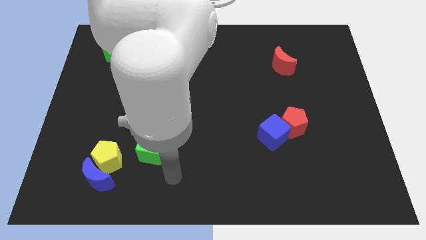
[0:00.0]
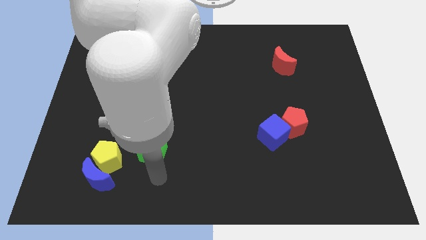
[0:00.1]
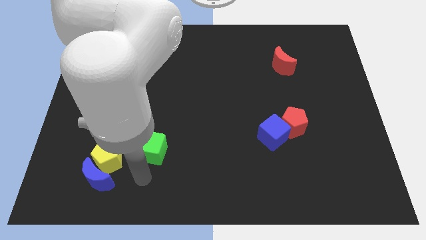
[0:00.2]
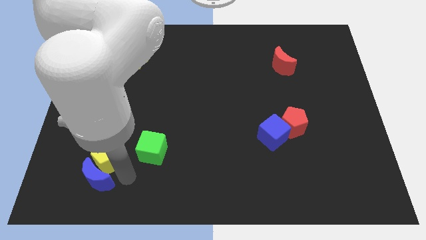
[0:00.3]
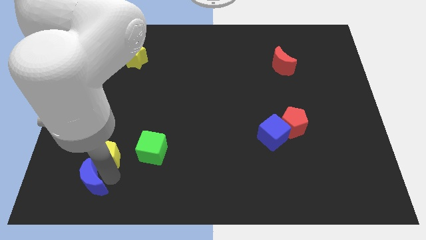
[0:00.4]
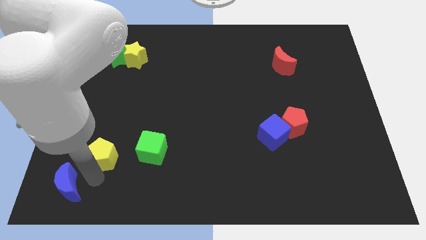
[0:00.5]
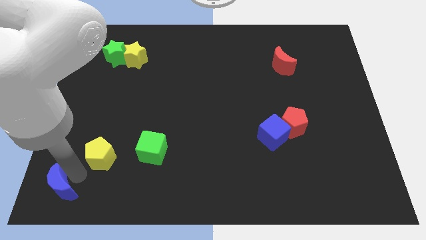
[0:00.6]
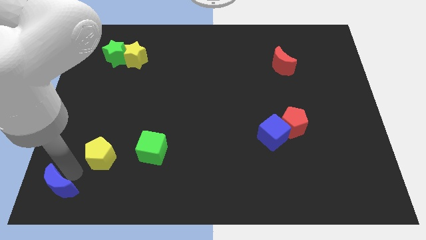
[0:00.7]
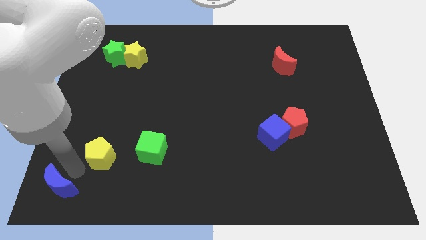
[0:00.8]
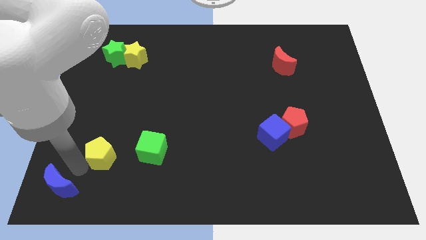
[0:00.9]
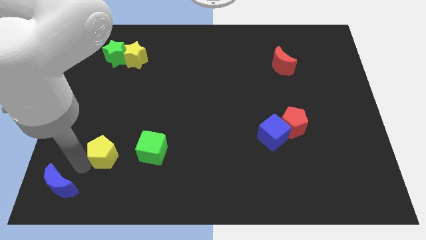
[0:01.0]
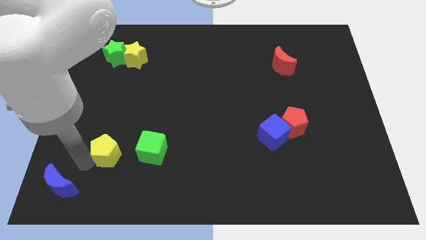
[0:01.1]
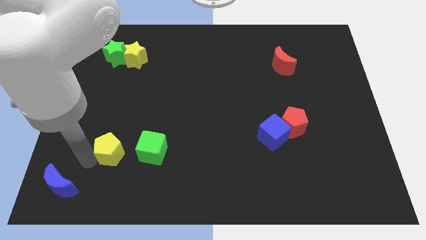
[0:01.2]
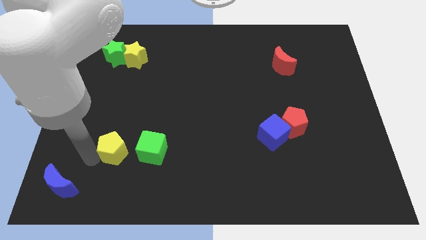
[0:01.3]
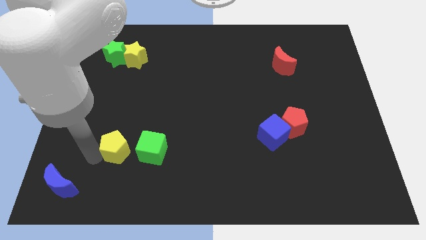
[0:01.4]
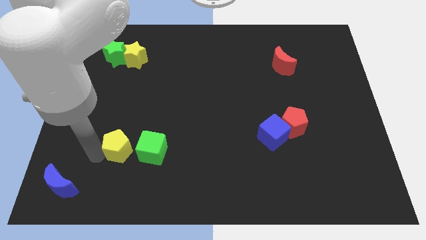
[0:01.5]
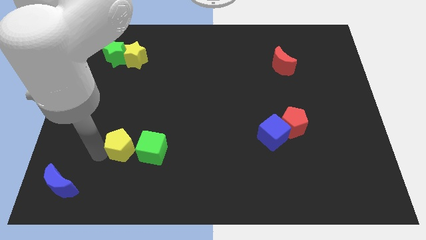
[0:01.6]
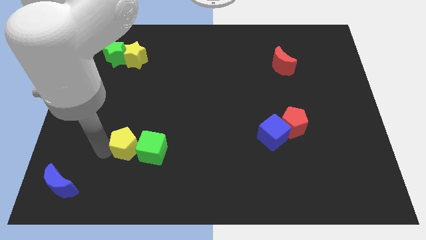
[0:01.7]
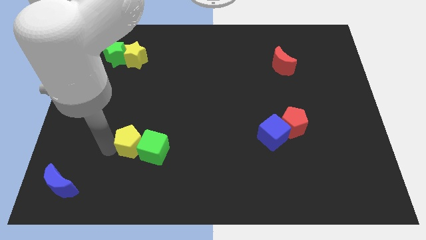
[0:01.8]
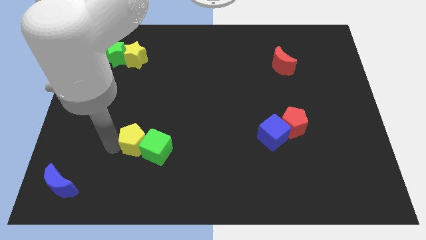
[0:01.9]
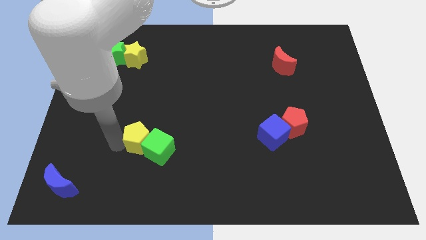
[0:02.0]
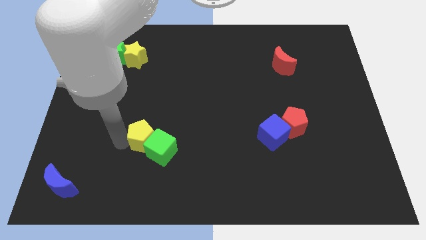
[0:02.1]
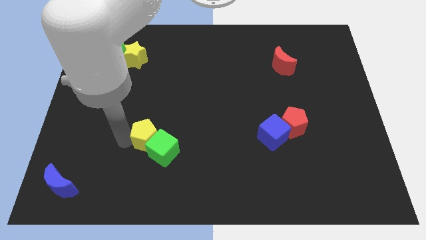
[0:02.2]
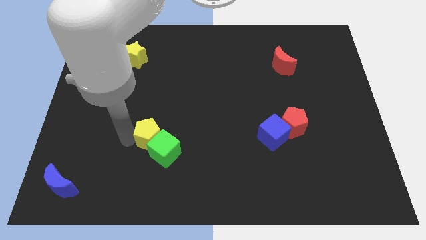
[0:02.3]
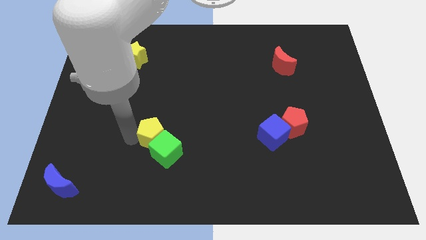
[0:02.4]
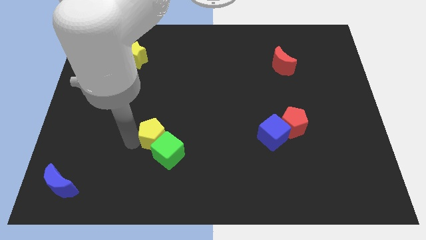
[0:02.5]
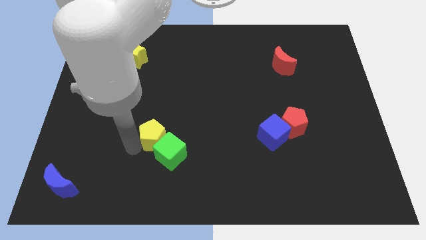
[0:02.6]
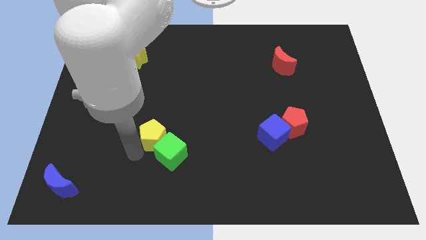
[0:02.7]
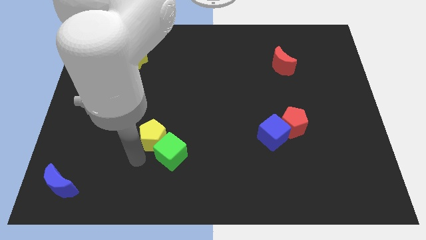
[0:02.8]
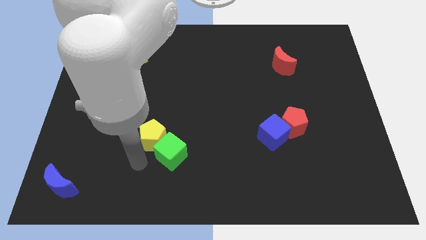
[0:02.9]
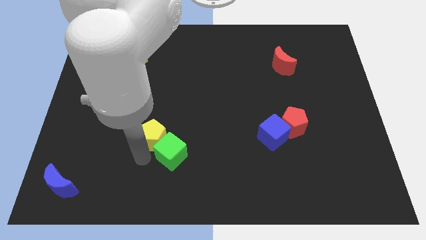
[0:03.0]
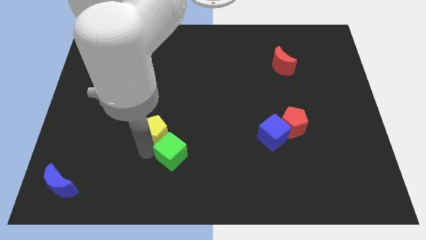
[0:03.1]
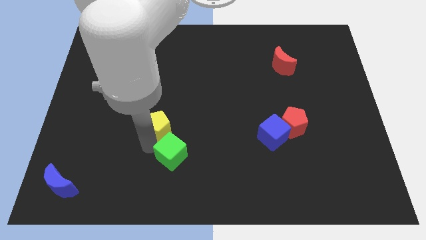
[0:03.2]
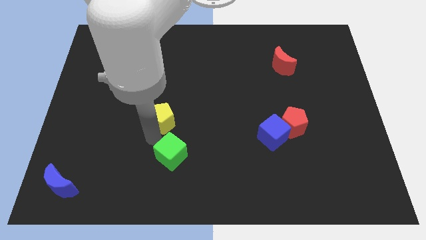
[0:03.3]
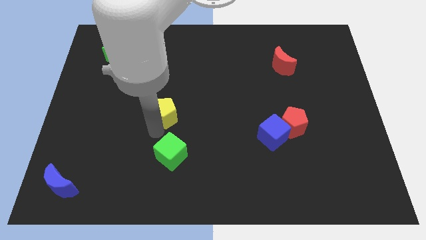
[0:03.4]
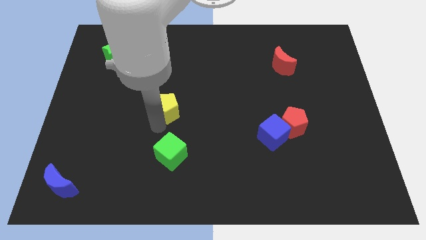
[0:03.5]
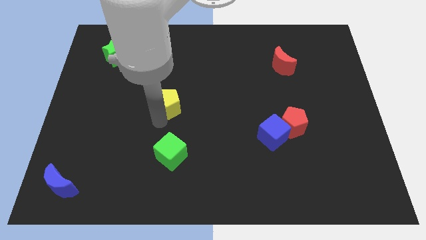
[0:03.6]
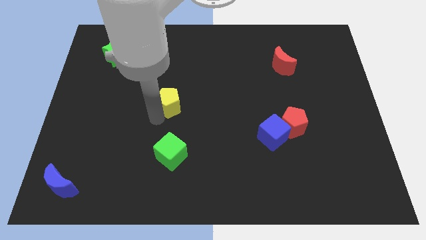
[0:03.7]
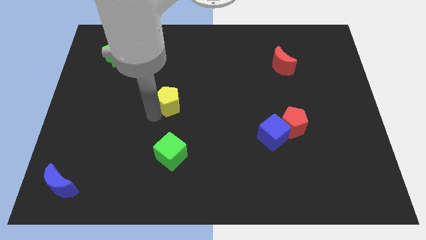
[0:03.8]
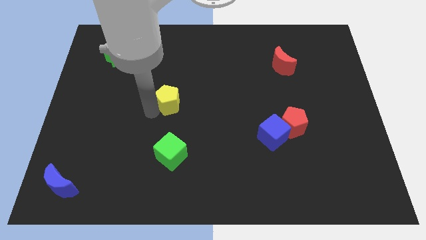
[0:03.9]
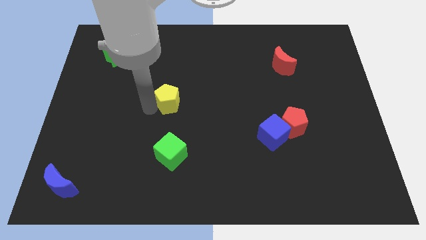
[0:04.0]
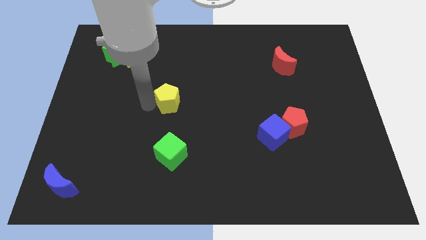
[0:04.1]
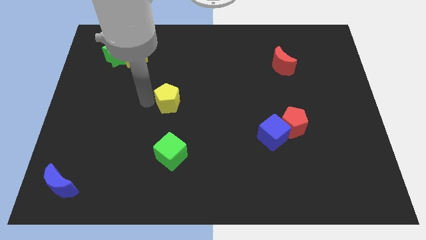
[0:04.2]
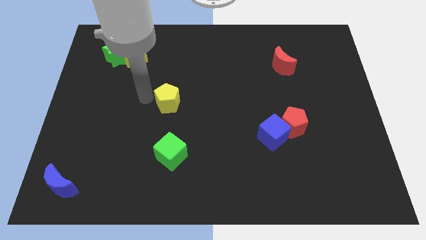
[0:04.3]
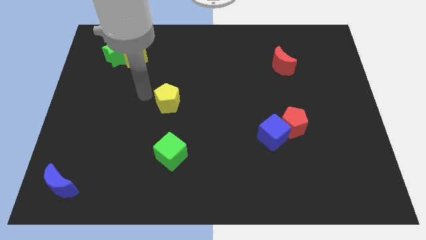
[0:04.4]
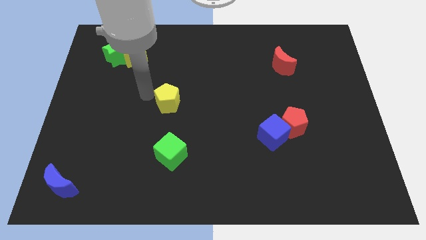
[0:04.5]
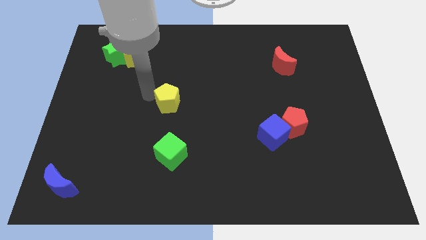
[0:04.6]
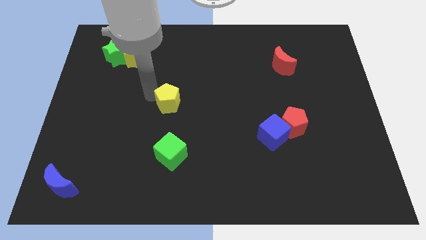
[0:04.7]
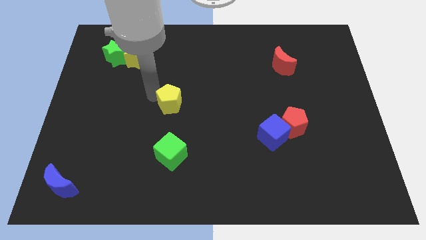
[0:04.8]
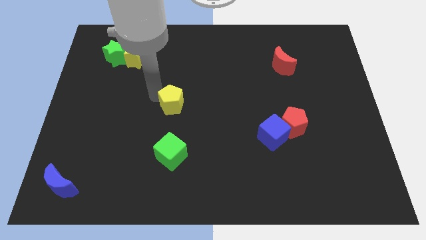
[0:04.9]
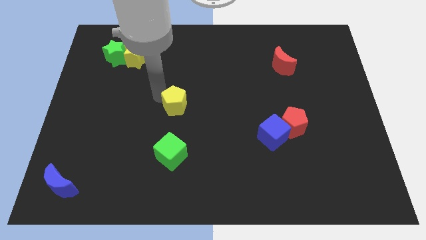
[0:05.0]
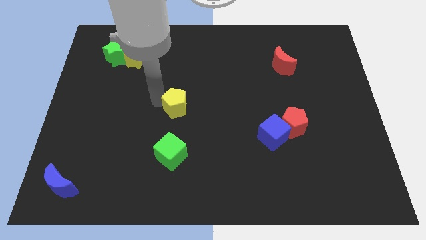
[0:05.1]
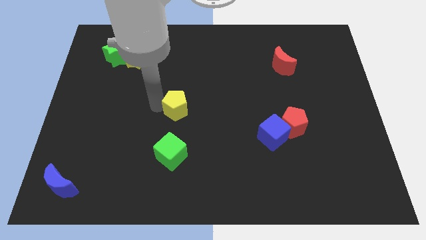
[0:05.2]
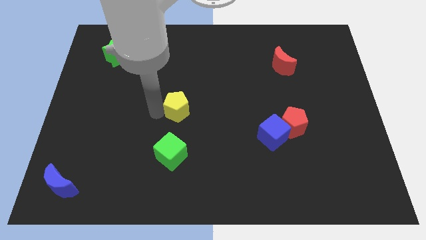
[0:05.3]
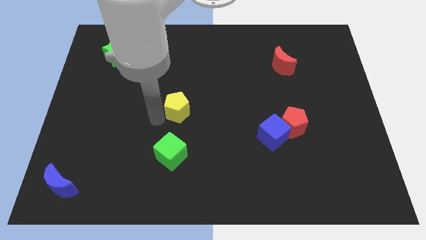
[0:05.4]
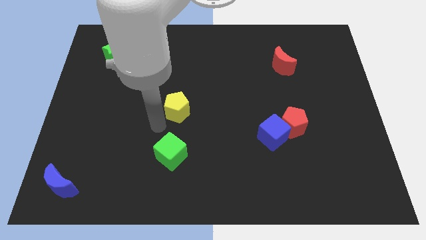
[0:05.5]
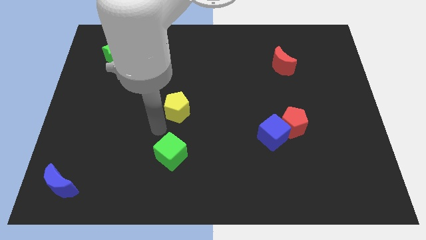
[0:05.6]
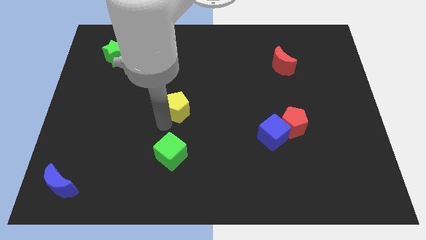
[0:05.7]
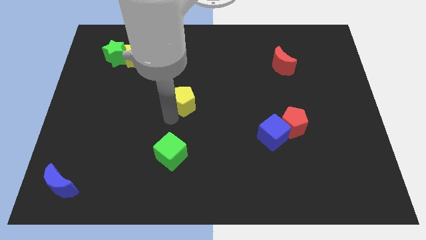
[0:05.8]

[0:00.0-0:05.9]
move the yellow pentagon up and then to the right

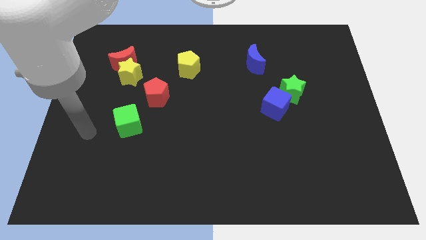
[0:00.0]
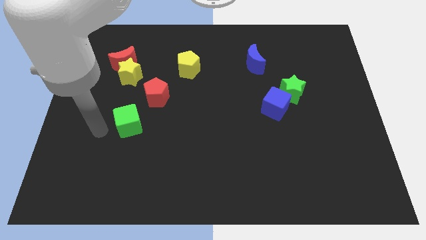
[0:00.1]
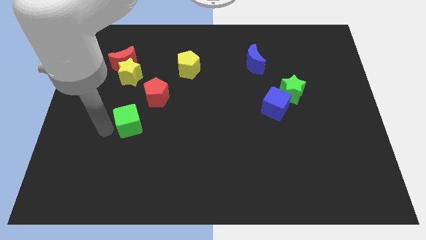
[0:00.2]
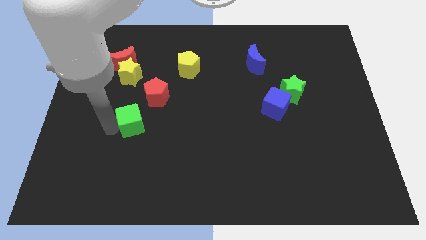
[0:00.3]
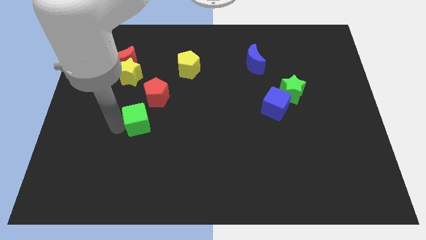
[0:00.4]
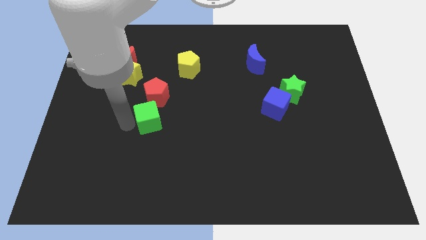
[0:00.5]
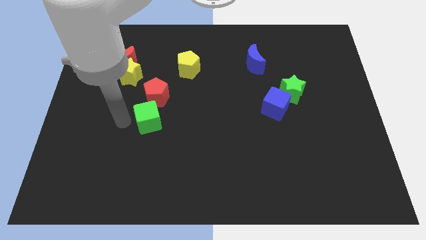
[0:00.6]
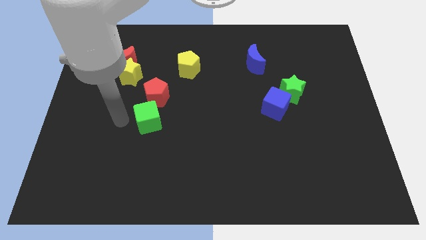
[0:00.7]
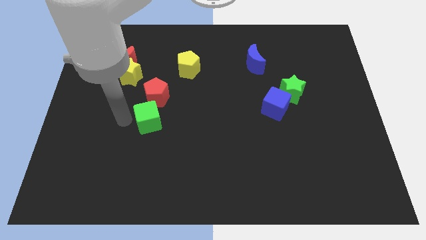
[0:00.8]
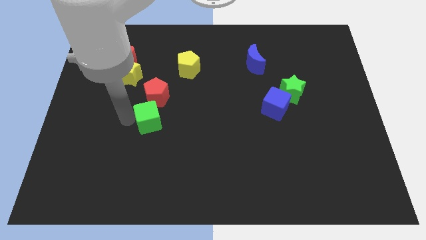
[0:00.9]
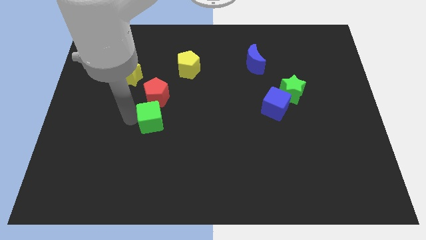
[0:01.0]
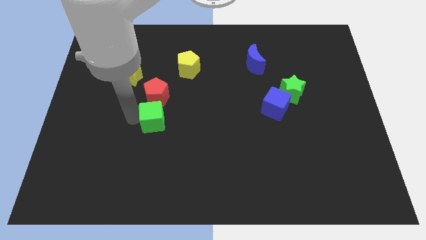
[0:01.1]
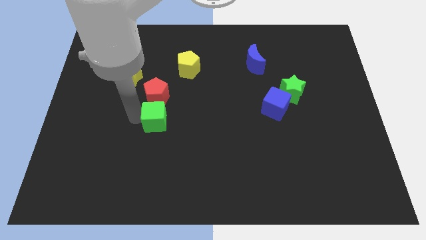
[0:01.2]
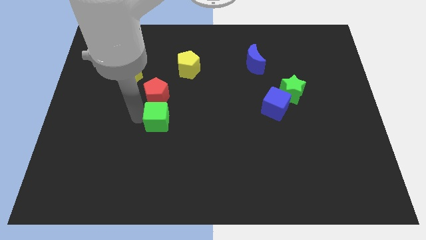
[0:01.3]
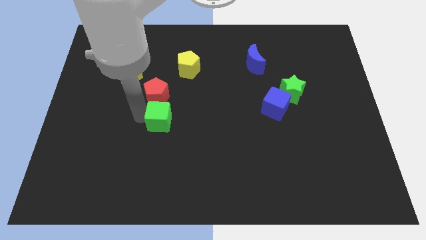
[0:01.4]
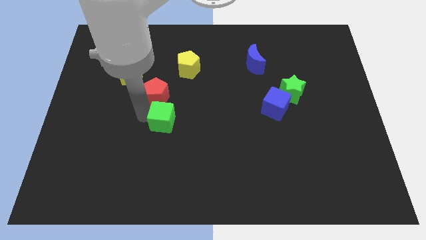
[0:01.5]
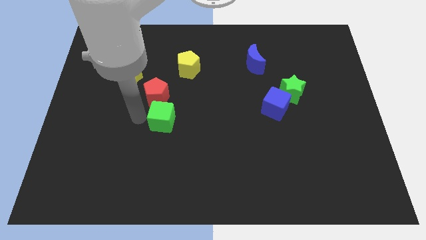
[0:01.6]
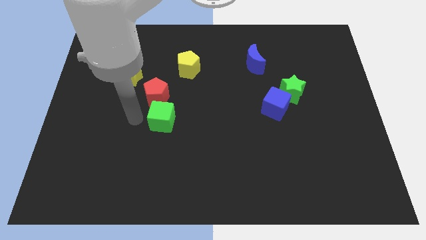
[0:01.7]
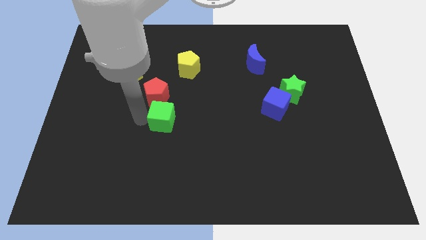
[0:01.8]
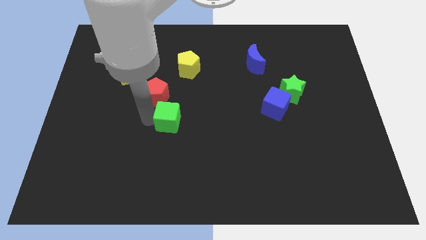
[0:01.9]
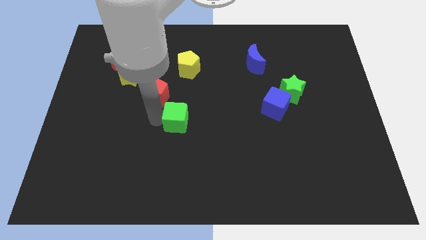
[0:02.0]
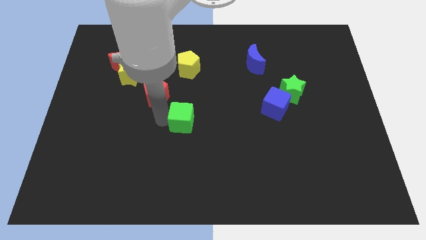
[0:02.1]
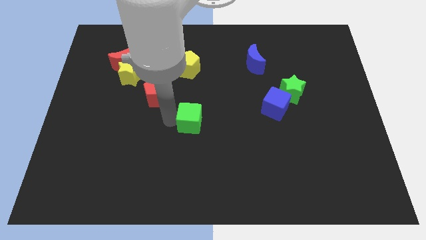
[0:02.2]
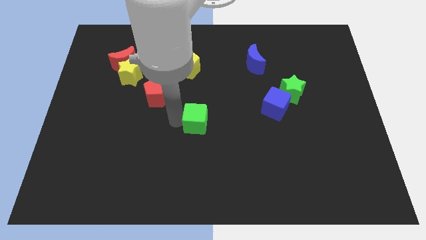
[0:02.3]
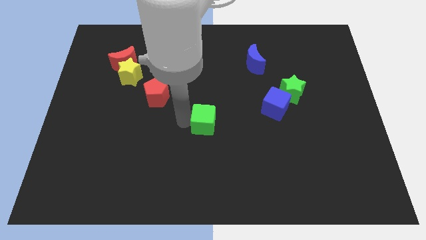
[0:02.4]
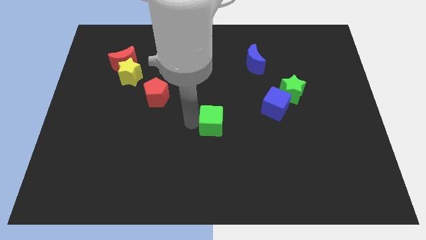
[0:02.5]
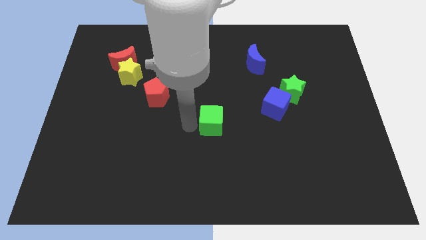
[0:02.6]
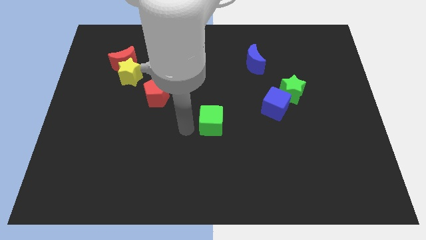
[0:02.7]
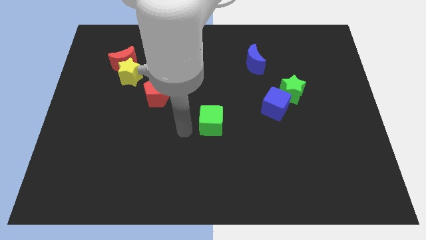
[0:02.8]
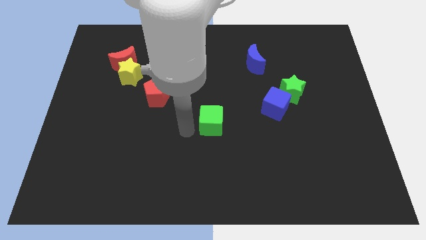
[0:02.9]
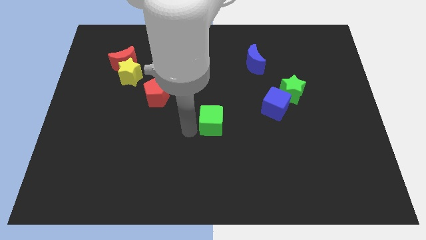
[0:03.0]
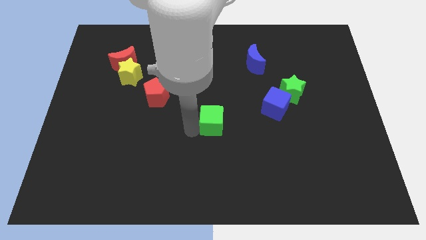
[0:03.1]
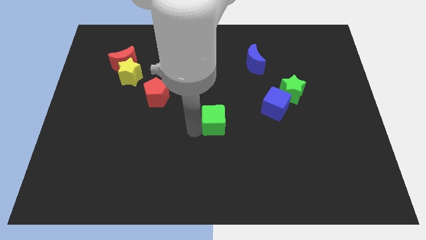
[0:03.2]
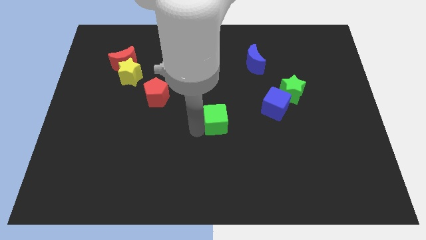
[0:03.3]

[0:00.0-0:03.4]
push the green cube to the right
